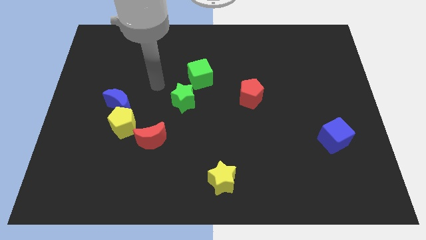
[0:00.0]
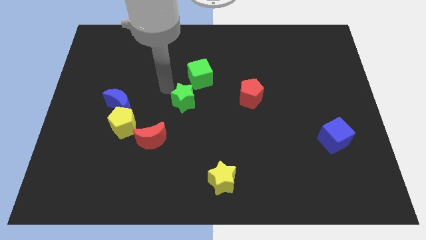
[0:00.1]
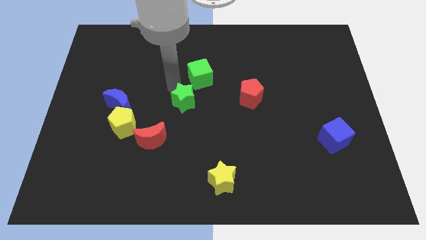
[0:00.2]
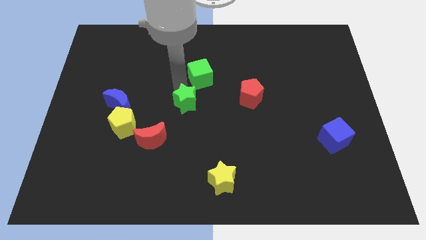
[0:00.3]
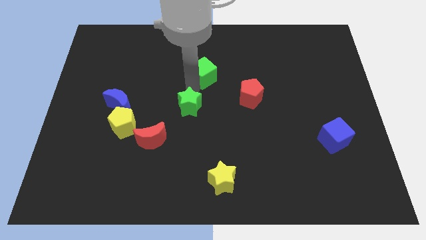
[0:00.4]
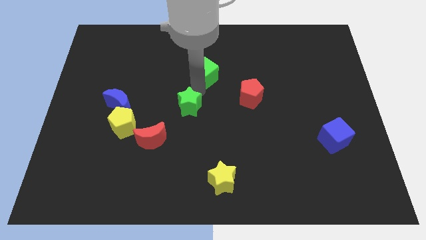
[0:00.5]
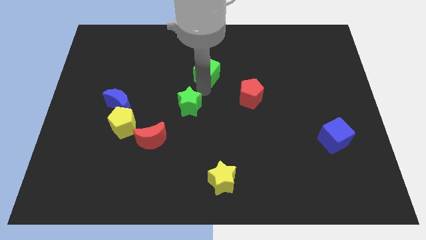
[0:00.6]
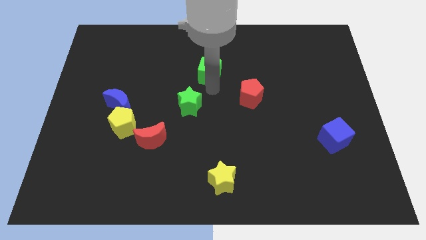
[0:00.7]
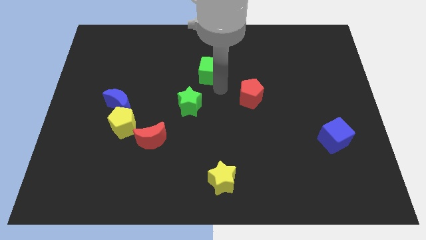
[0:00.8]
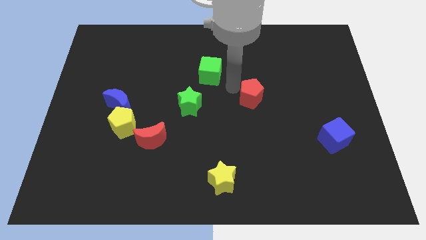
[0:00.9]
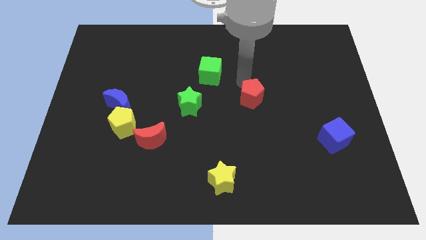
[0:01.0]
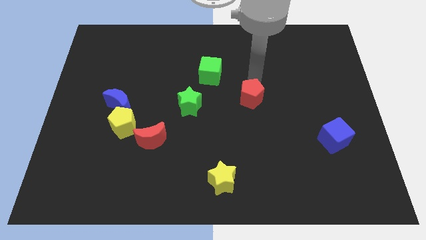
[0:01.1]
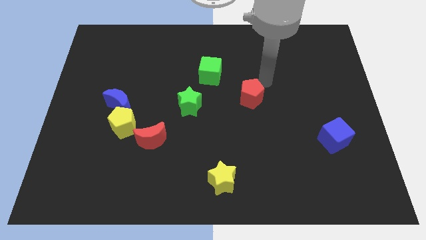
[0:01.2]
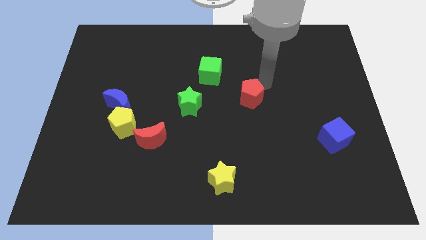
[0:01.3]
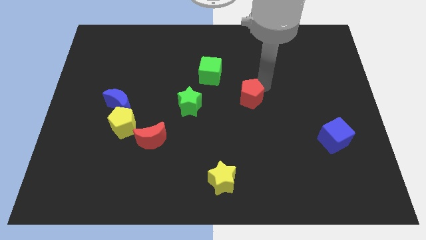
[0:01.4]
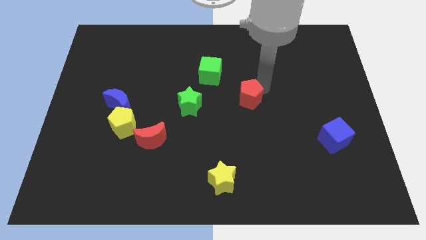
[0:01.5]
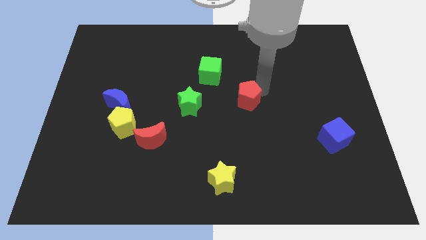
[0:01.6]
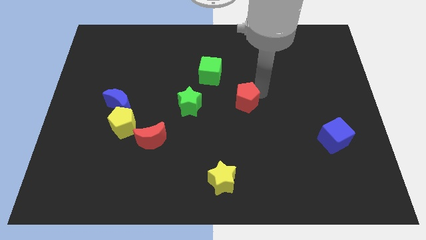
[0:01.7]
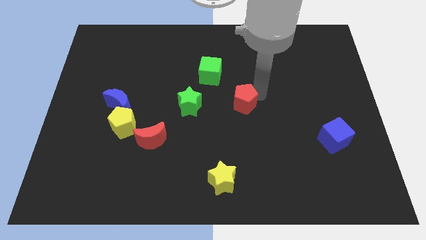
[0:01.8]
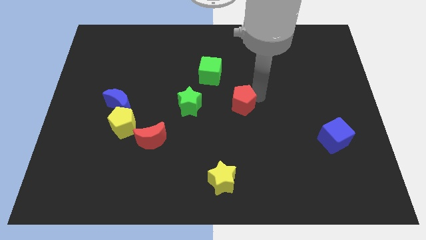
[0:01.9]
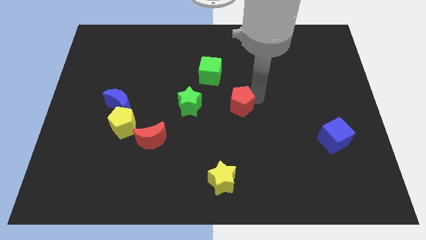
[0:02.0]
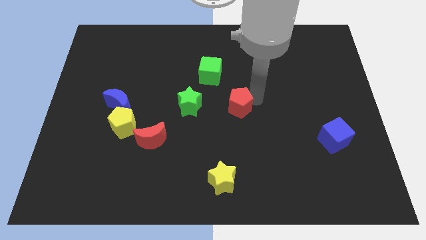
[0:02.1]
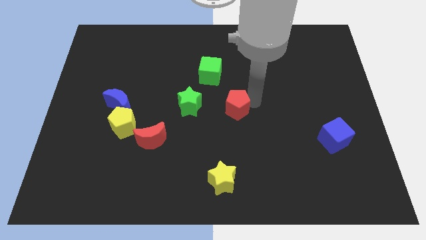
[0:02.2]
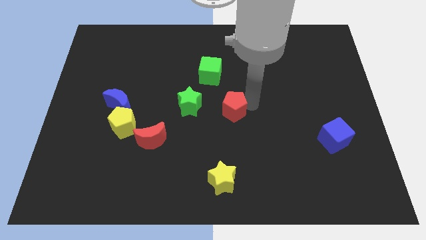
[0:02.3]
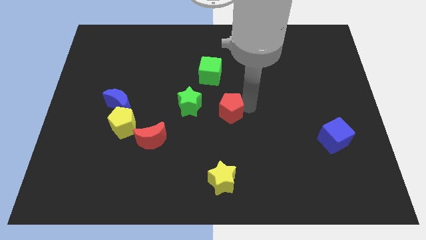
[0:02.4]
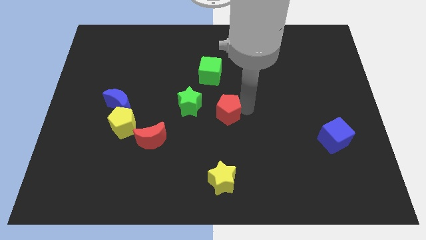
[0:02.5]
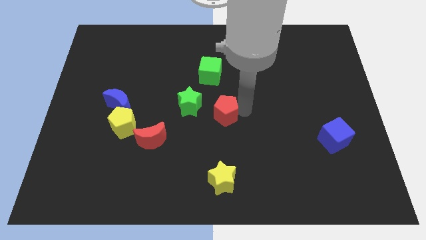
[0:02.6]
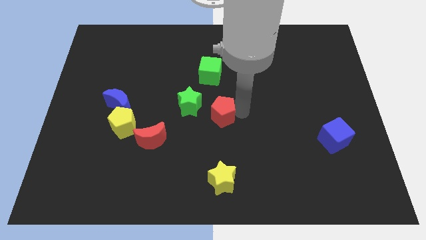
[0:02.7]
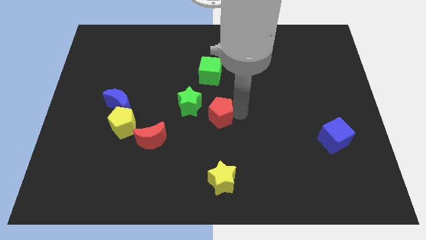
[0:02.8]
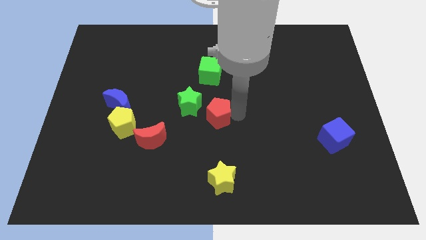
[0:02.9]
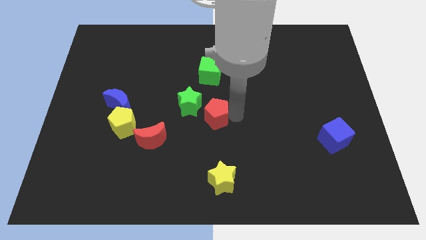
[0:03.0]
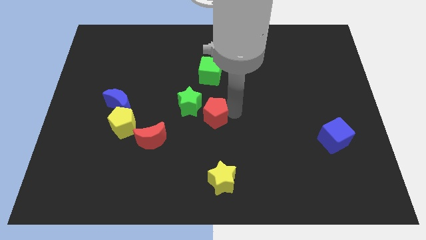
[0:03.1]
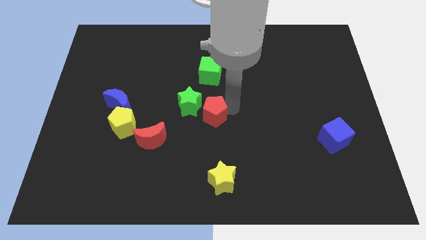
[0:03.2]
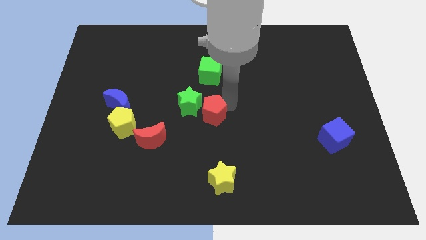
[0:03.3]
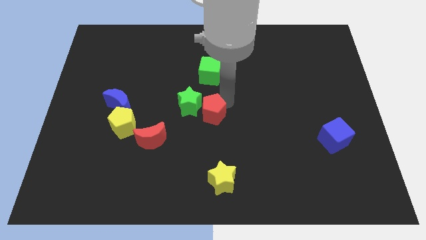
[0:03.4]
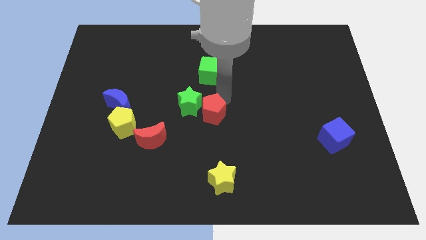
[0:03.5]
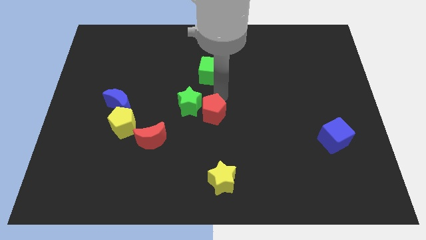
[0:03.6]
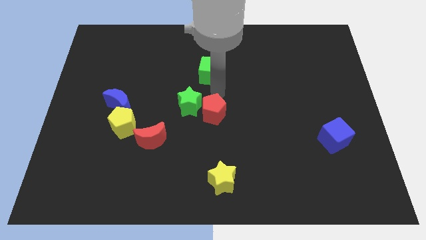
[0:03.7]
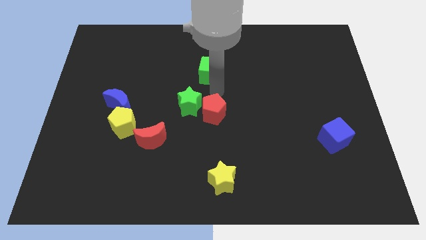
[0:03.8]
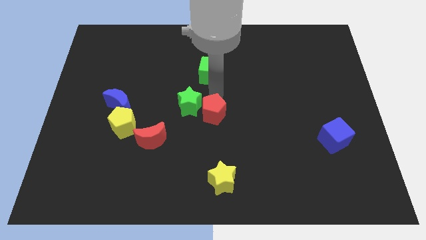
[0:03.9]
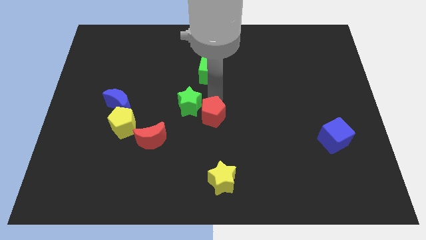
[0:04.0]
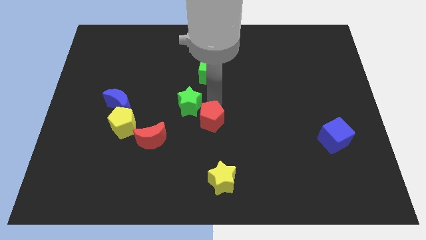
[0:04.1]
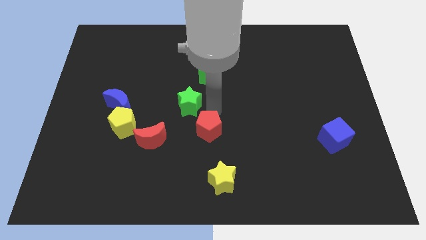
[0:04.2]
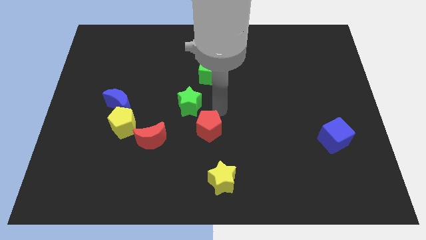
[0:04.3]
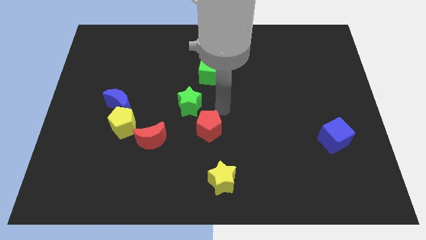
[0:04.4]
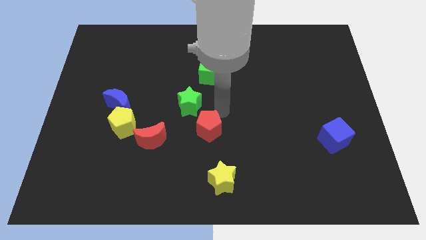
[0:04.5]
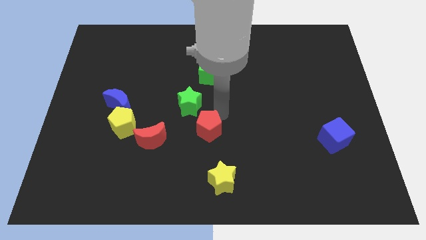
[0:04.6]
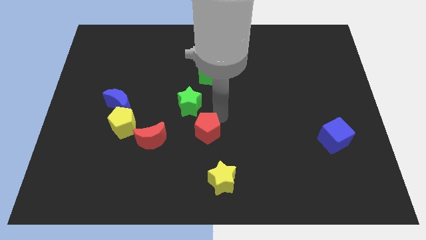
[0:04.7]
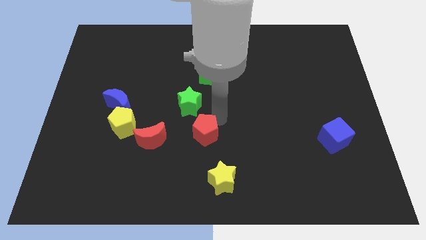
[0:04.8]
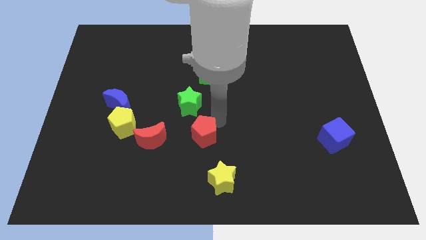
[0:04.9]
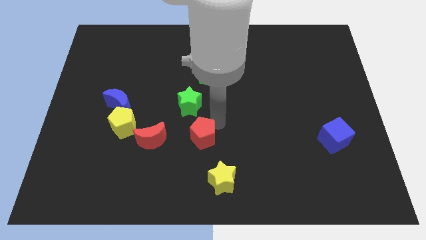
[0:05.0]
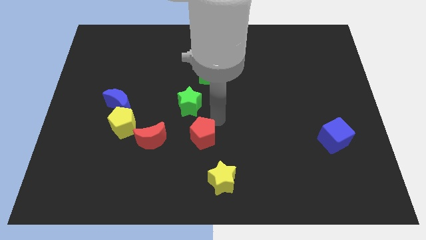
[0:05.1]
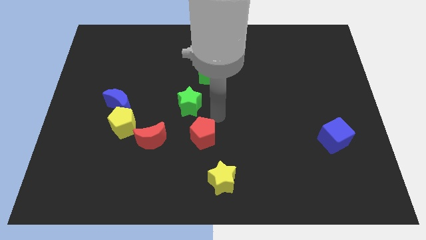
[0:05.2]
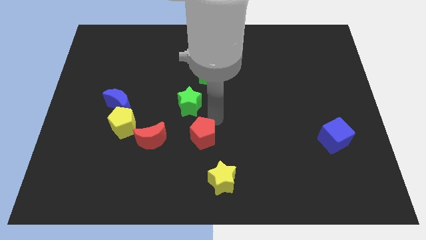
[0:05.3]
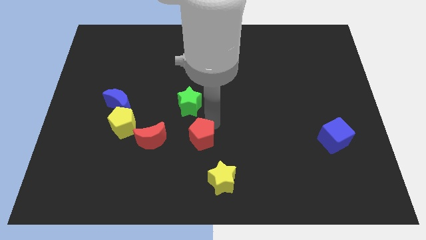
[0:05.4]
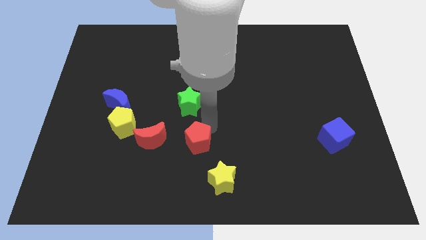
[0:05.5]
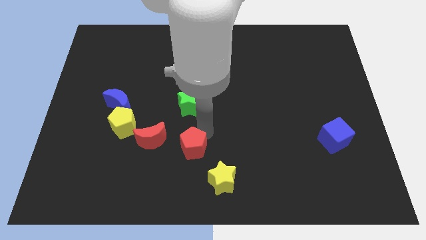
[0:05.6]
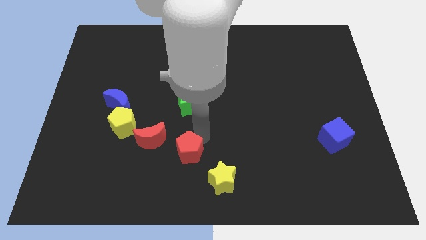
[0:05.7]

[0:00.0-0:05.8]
slide the red pentagon downwards and left

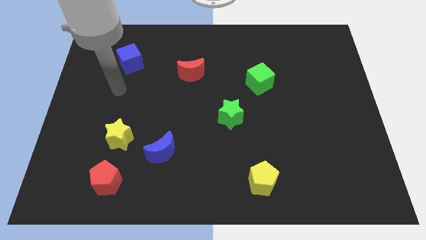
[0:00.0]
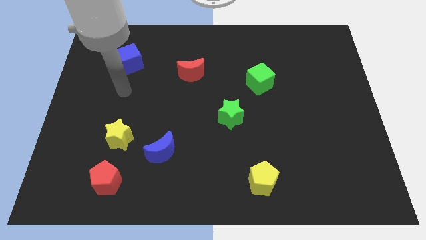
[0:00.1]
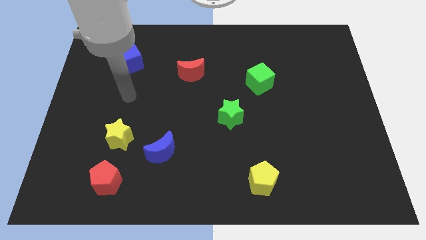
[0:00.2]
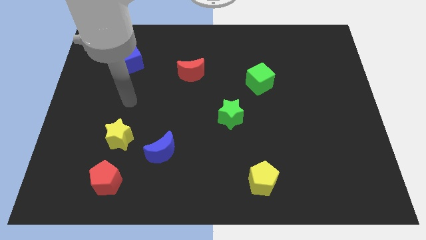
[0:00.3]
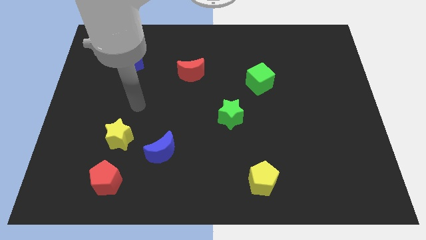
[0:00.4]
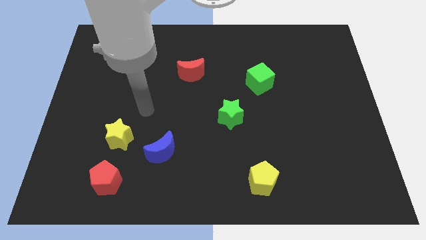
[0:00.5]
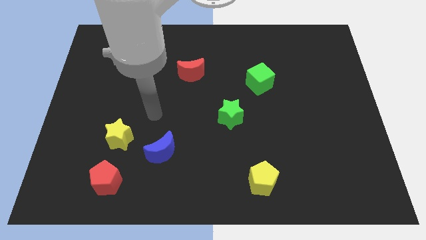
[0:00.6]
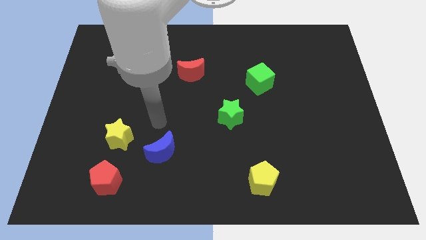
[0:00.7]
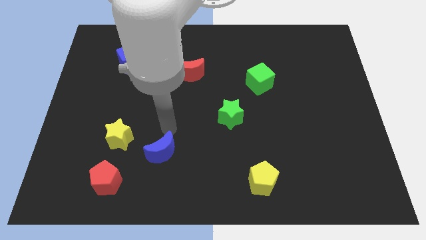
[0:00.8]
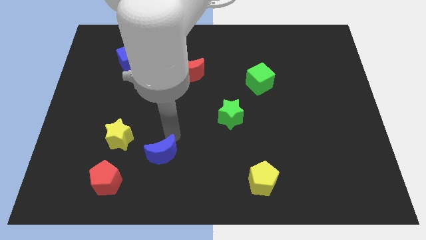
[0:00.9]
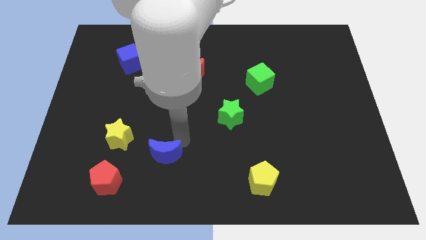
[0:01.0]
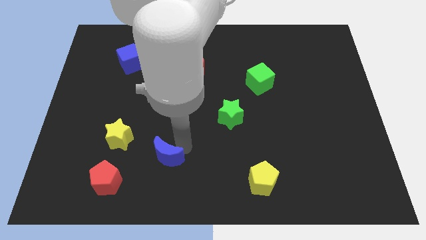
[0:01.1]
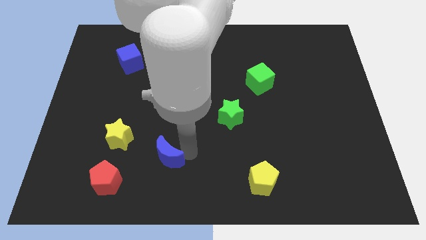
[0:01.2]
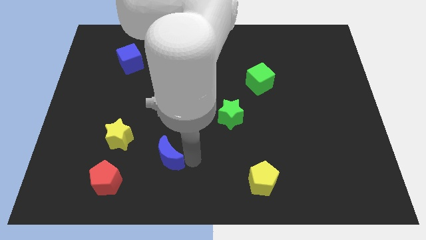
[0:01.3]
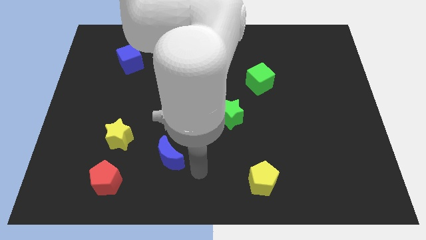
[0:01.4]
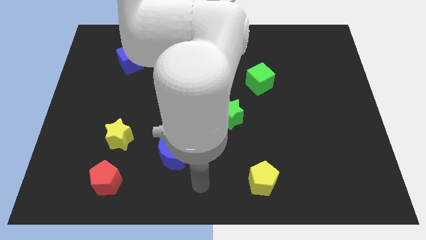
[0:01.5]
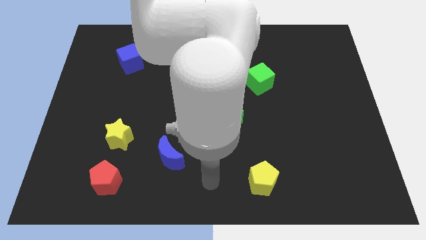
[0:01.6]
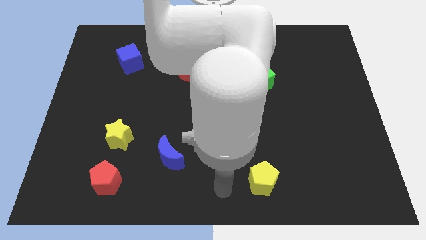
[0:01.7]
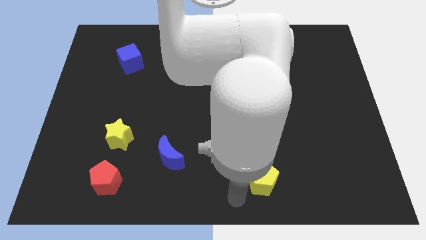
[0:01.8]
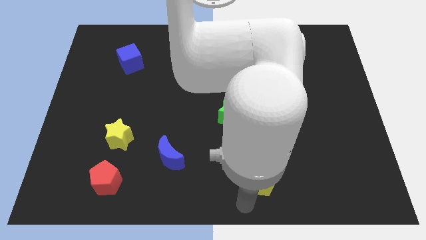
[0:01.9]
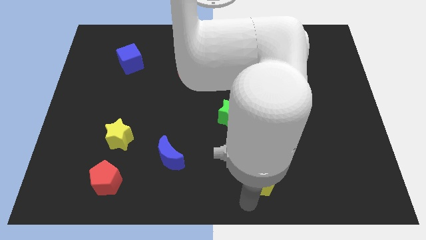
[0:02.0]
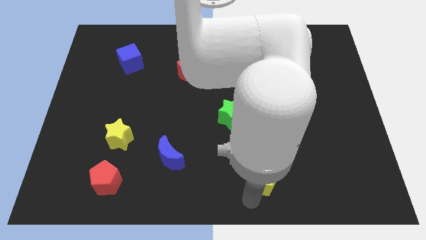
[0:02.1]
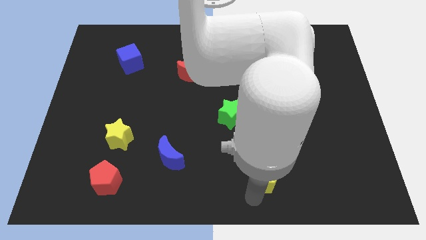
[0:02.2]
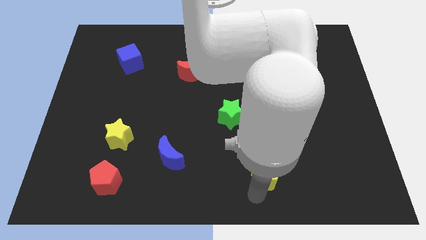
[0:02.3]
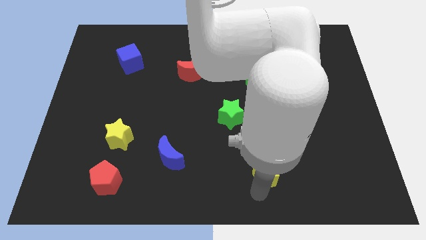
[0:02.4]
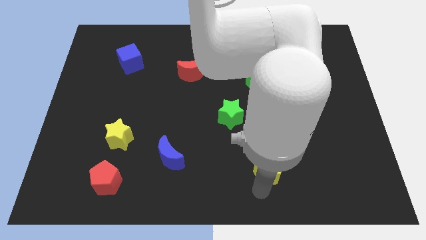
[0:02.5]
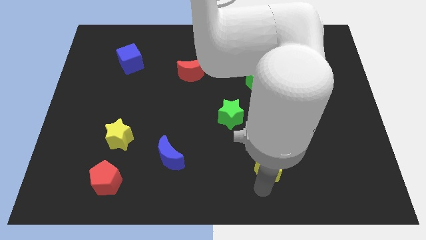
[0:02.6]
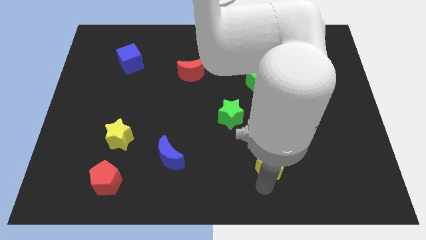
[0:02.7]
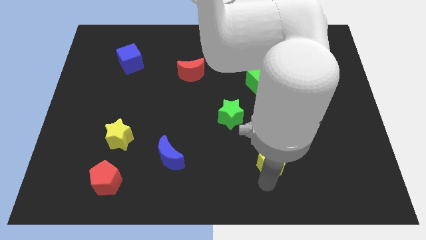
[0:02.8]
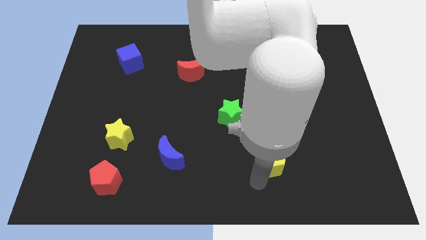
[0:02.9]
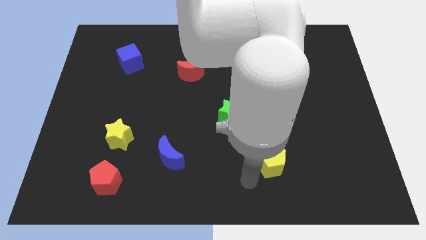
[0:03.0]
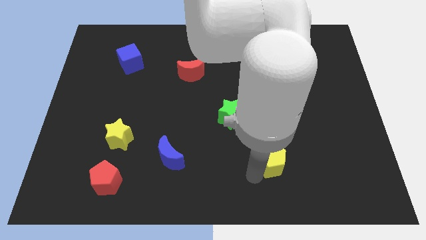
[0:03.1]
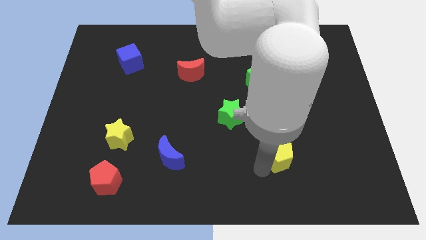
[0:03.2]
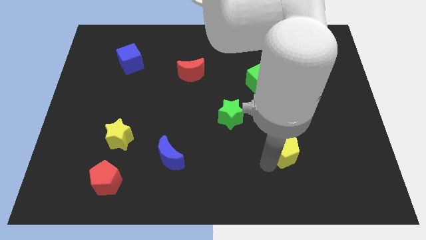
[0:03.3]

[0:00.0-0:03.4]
slide the yellow pentagon upwards and right diagonally a little bit
